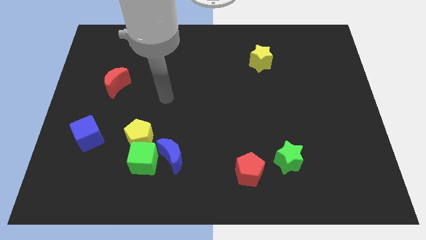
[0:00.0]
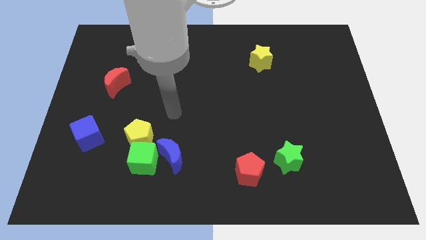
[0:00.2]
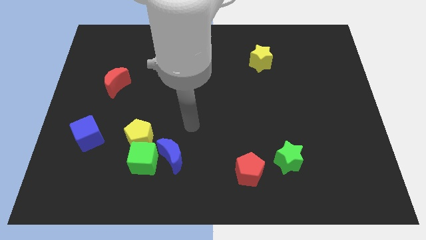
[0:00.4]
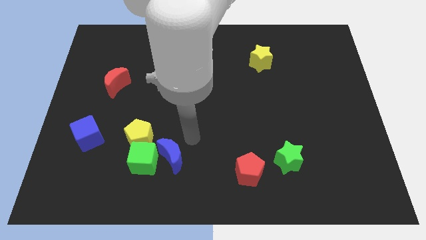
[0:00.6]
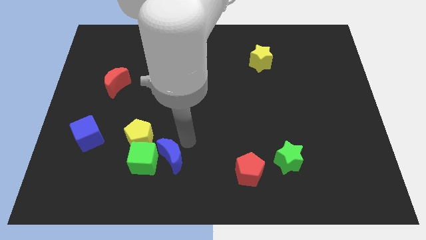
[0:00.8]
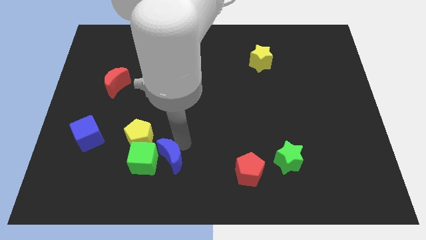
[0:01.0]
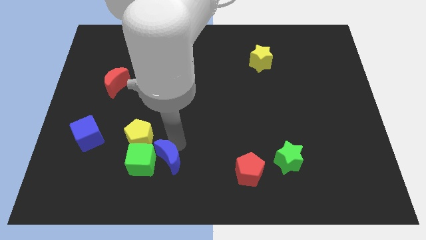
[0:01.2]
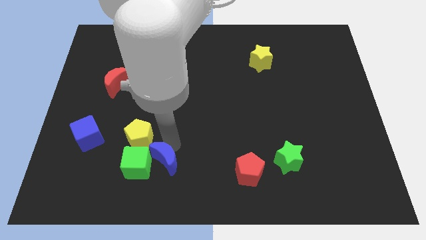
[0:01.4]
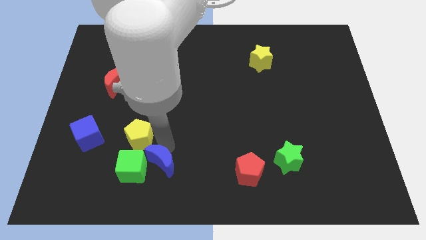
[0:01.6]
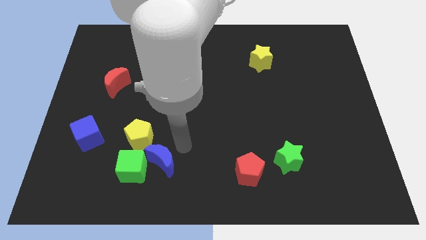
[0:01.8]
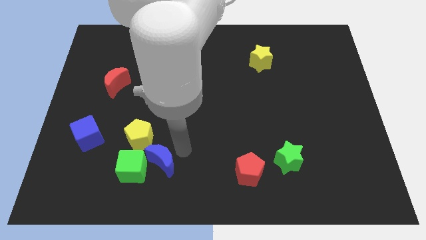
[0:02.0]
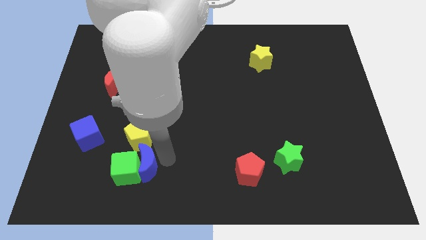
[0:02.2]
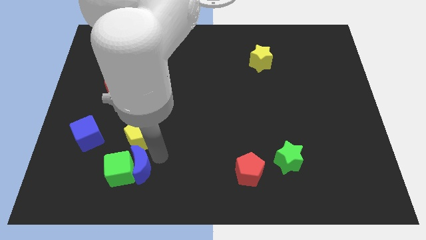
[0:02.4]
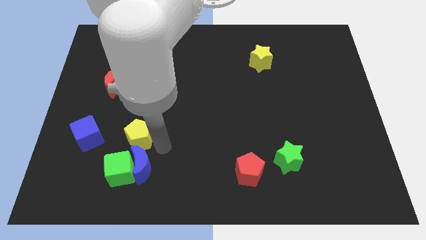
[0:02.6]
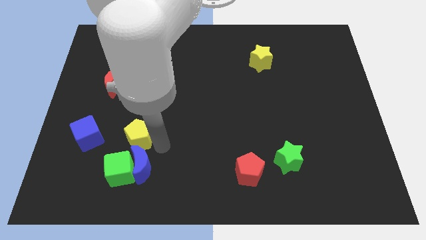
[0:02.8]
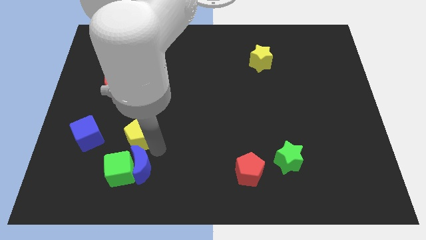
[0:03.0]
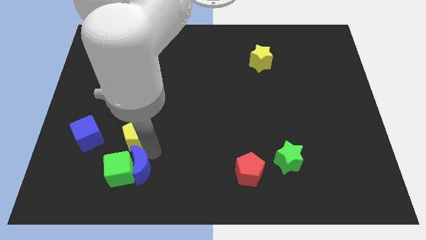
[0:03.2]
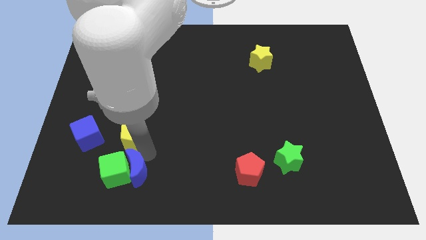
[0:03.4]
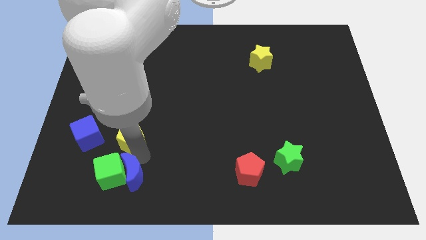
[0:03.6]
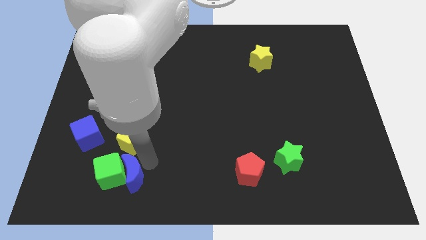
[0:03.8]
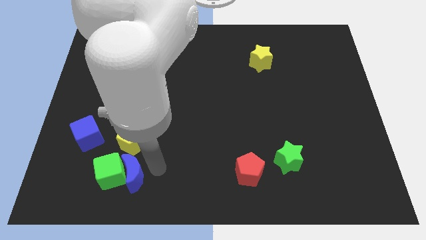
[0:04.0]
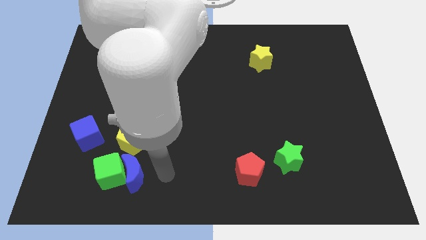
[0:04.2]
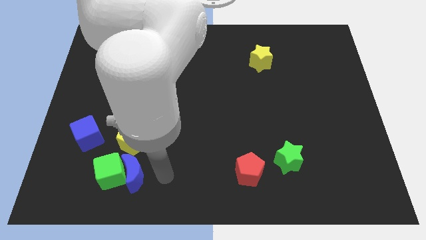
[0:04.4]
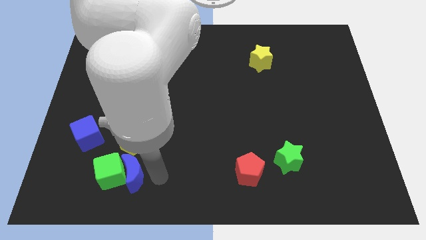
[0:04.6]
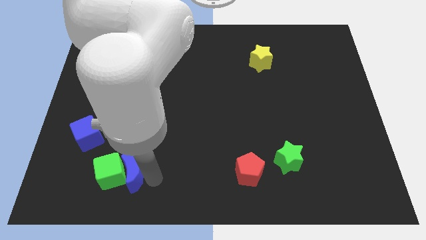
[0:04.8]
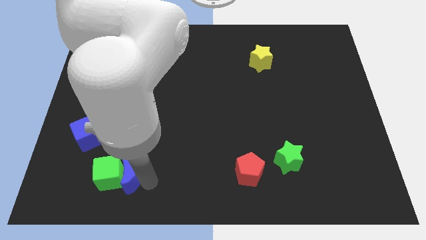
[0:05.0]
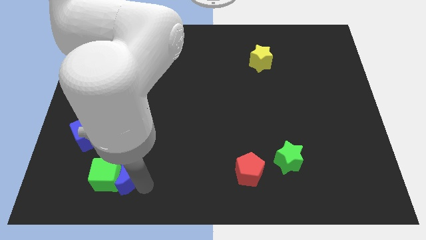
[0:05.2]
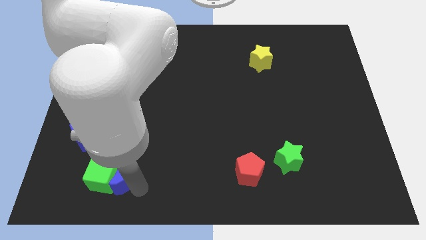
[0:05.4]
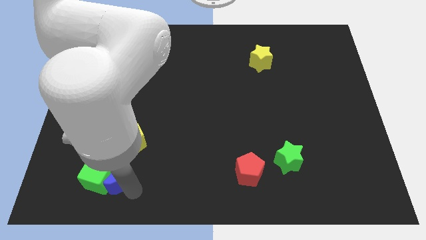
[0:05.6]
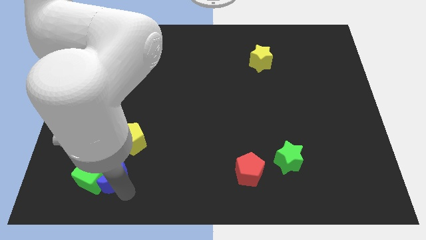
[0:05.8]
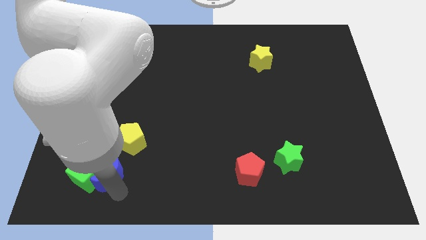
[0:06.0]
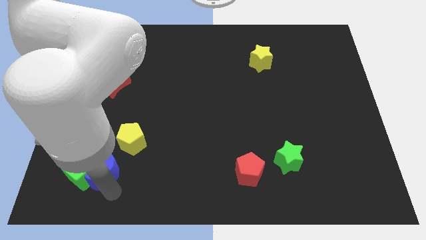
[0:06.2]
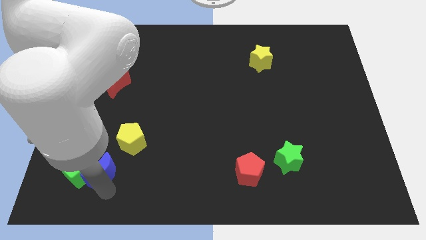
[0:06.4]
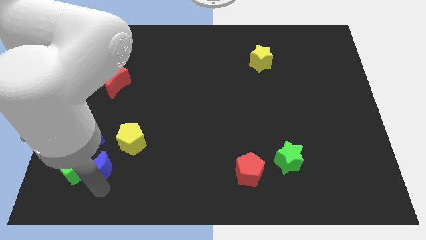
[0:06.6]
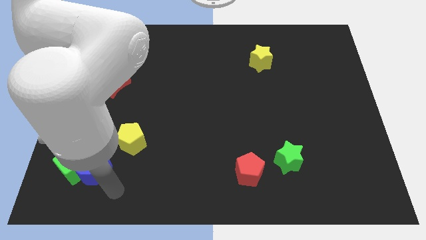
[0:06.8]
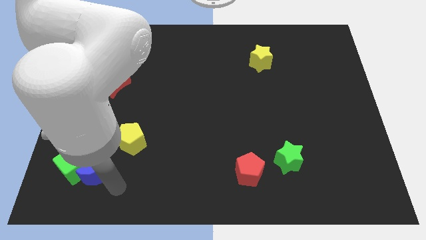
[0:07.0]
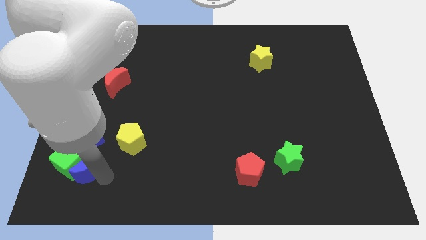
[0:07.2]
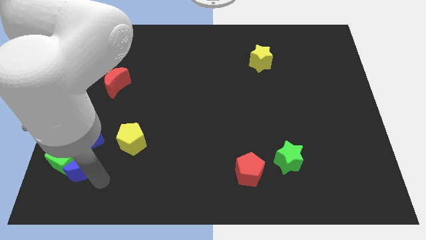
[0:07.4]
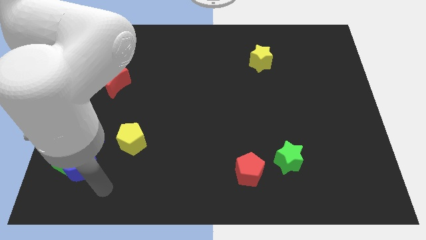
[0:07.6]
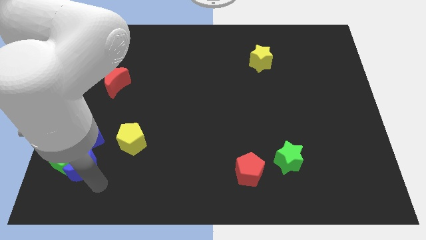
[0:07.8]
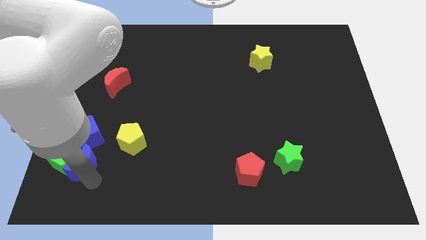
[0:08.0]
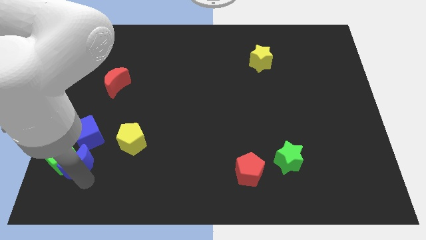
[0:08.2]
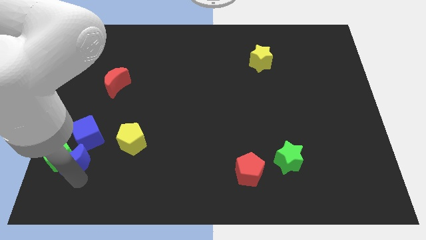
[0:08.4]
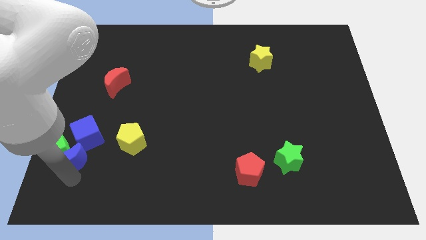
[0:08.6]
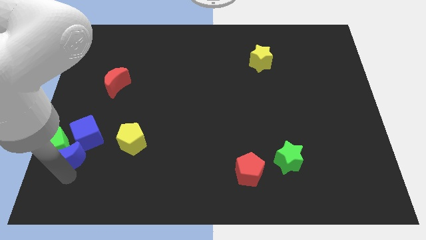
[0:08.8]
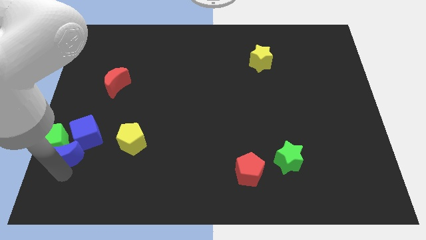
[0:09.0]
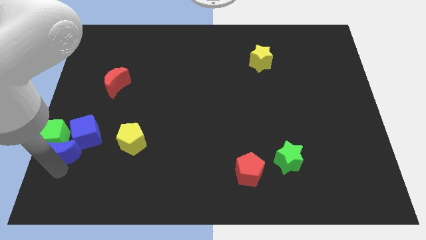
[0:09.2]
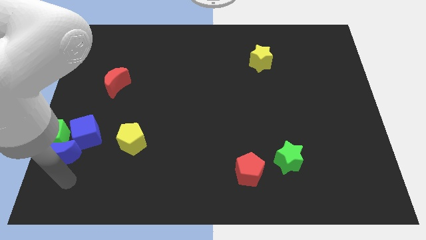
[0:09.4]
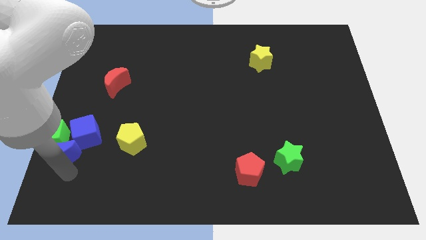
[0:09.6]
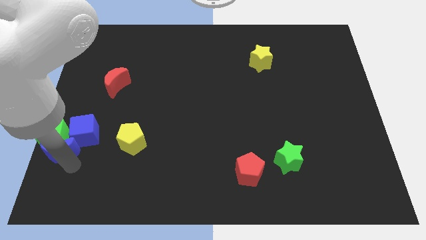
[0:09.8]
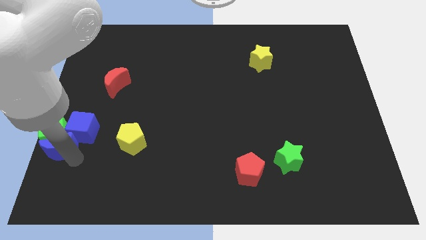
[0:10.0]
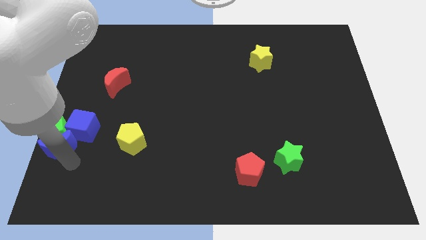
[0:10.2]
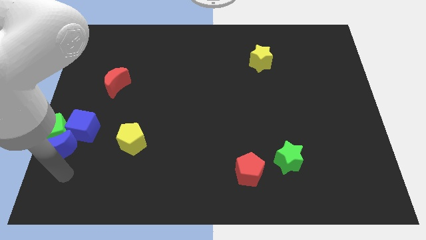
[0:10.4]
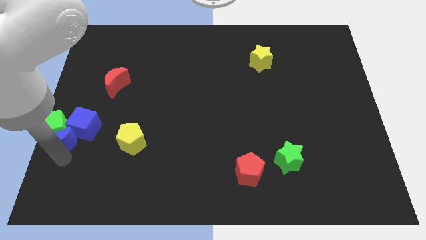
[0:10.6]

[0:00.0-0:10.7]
move the blue moon to the center left

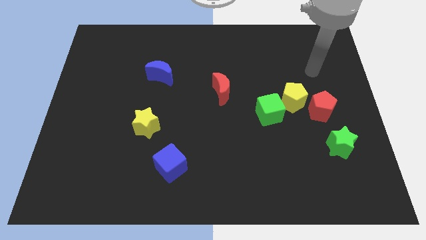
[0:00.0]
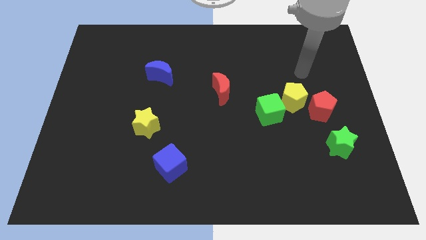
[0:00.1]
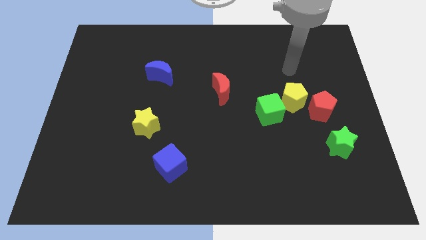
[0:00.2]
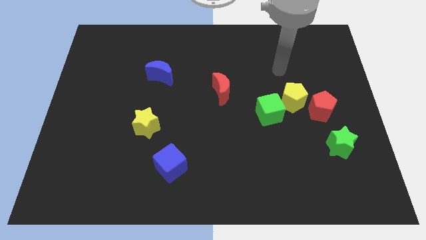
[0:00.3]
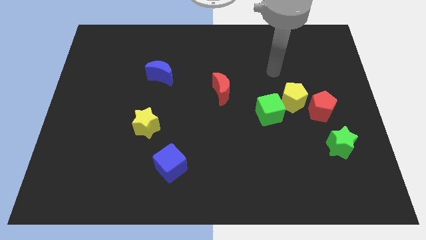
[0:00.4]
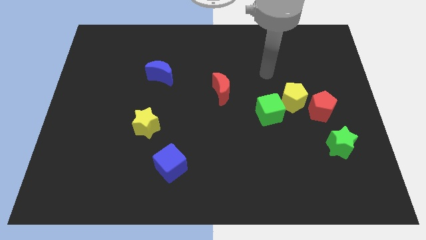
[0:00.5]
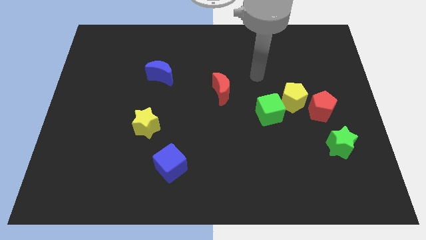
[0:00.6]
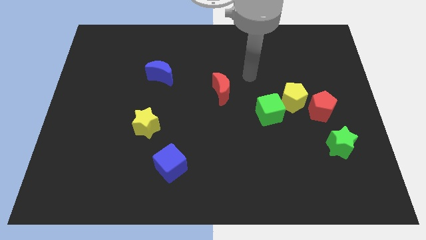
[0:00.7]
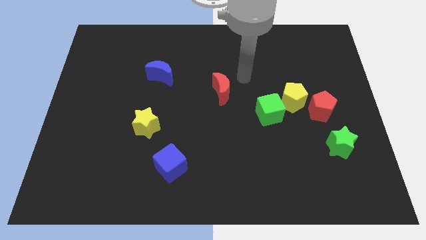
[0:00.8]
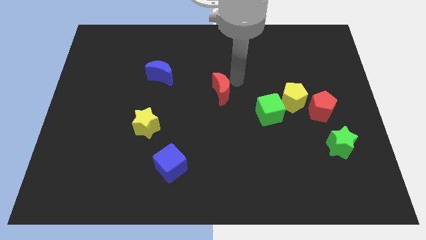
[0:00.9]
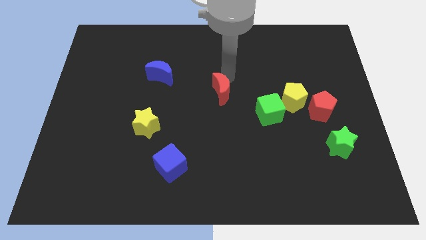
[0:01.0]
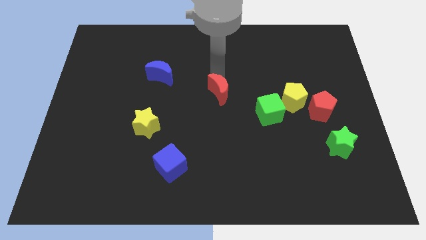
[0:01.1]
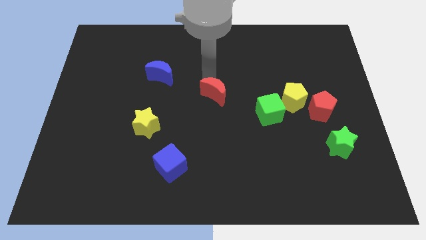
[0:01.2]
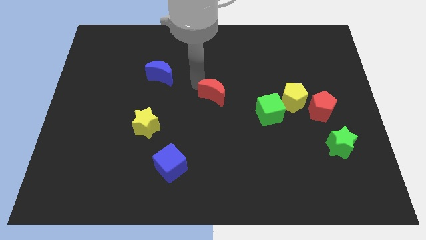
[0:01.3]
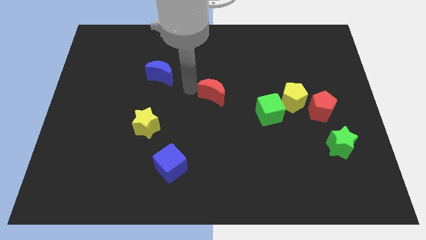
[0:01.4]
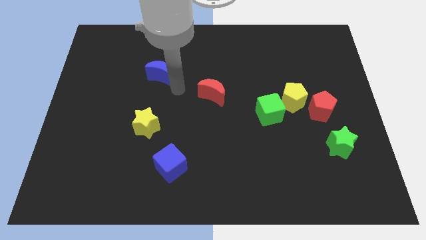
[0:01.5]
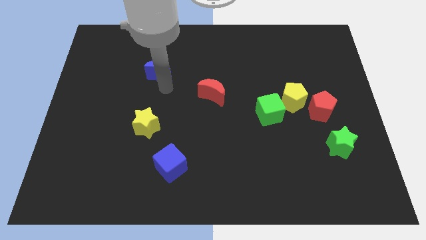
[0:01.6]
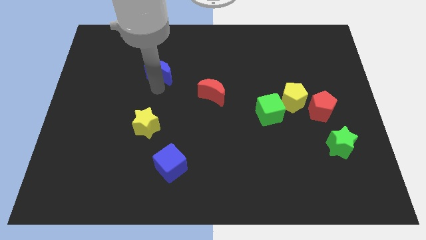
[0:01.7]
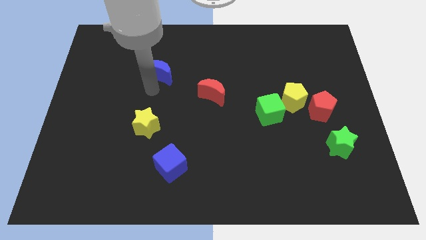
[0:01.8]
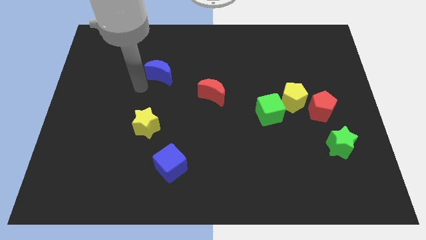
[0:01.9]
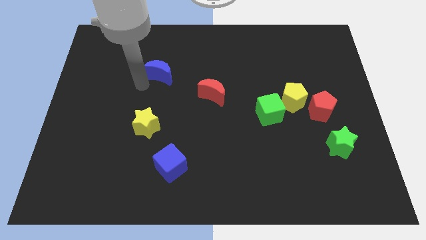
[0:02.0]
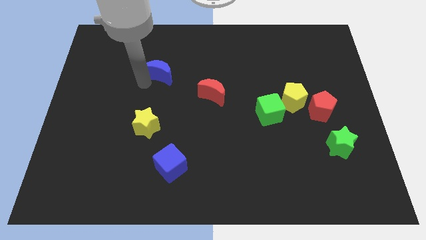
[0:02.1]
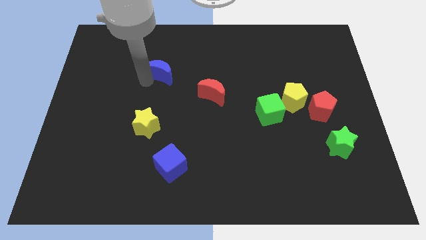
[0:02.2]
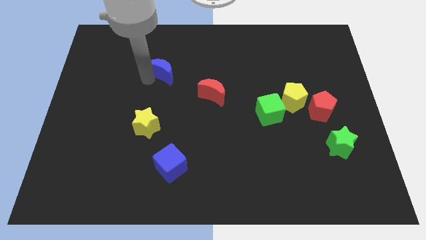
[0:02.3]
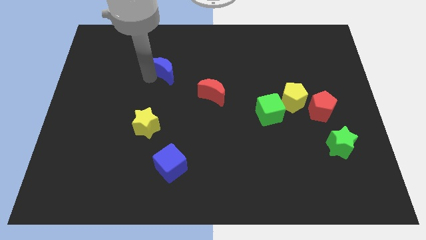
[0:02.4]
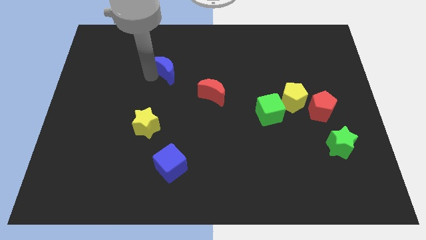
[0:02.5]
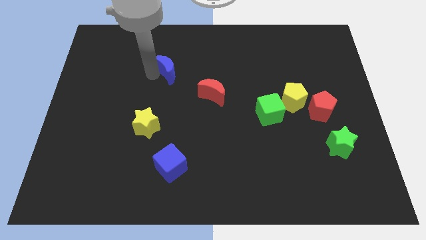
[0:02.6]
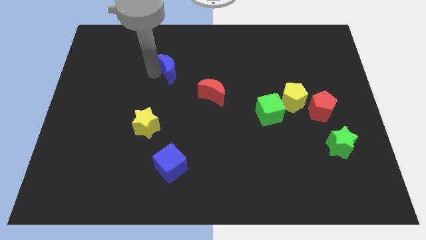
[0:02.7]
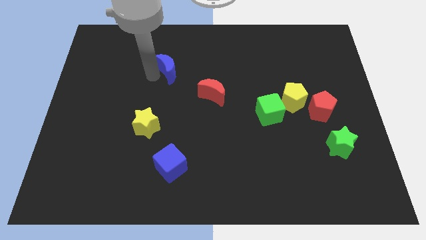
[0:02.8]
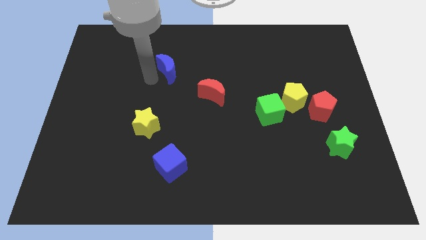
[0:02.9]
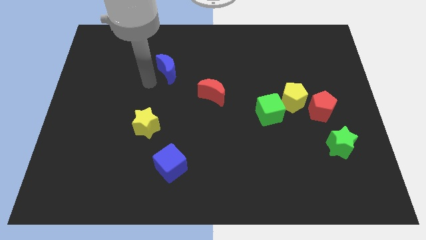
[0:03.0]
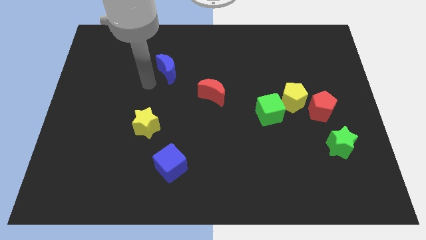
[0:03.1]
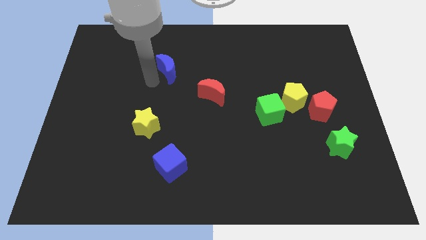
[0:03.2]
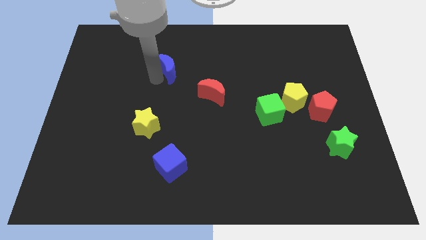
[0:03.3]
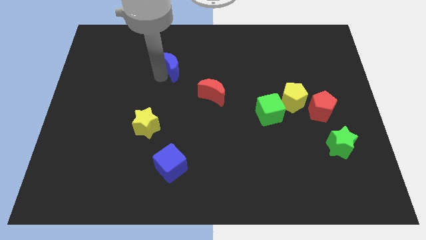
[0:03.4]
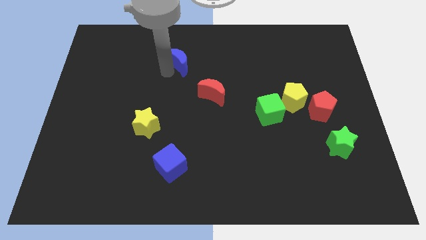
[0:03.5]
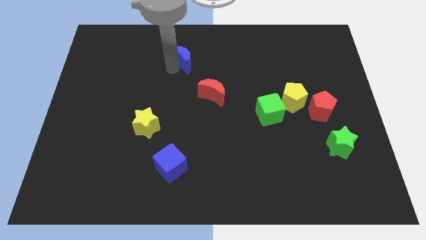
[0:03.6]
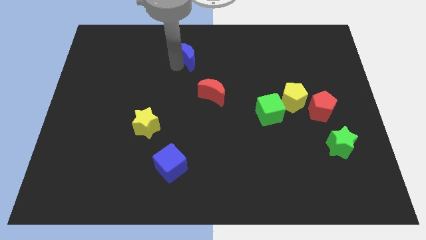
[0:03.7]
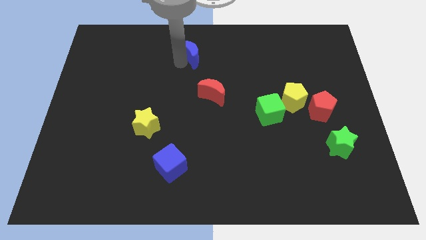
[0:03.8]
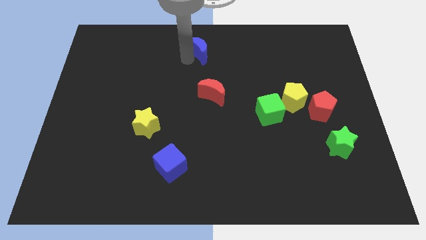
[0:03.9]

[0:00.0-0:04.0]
slide the blue moon to the towards your base
